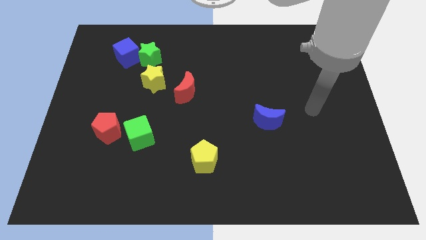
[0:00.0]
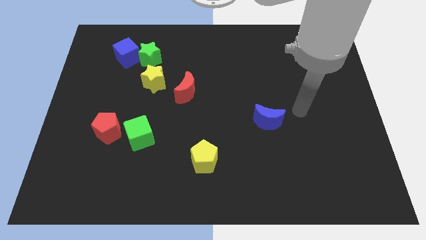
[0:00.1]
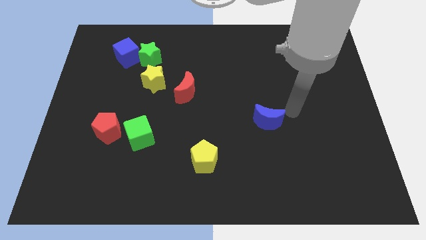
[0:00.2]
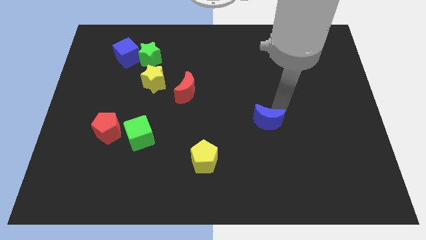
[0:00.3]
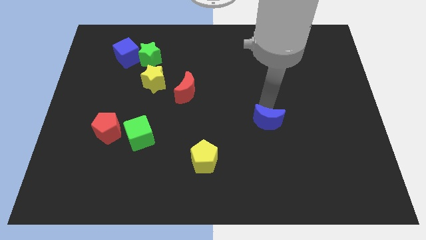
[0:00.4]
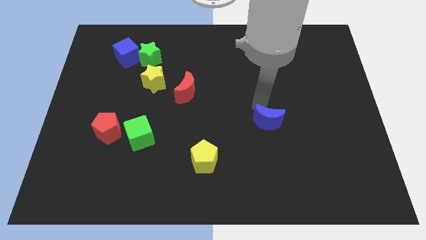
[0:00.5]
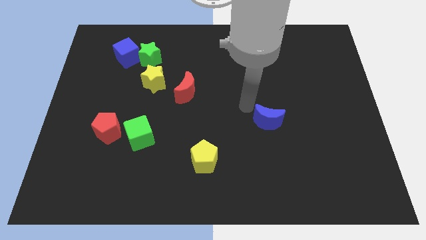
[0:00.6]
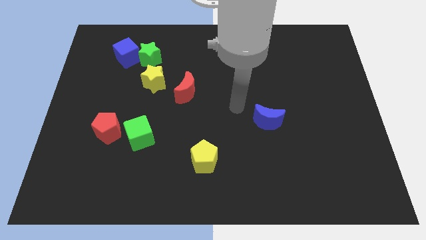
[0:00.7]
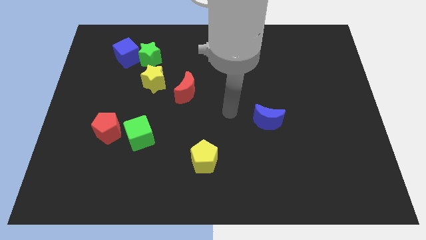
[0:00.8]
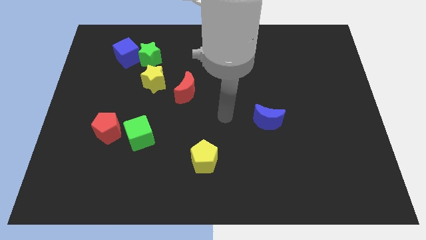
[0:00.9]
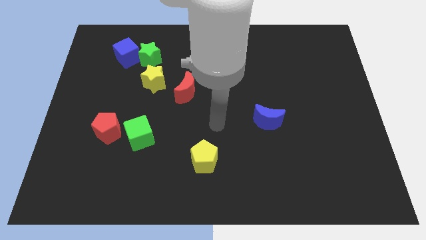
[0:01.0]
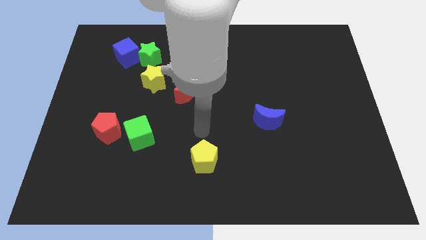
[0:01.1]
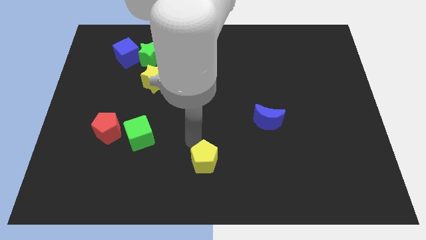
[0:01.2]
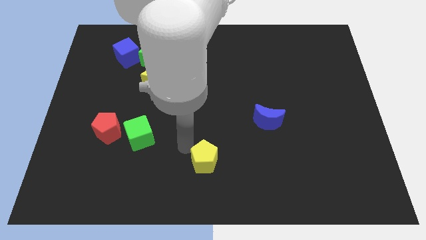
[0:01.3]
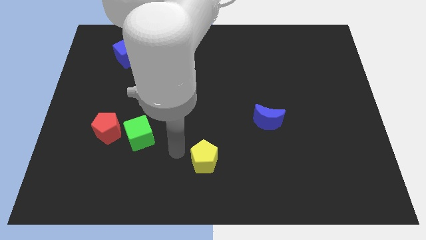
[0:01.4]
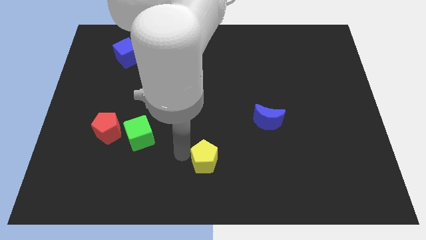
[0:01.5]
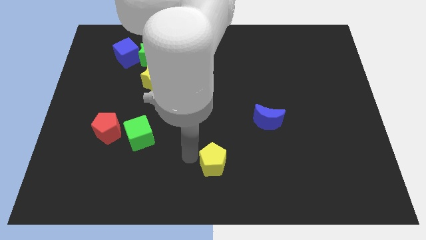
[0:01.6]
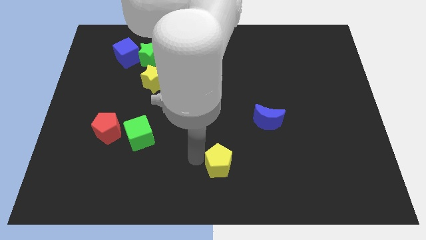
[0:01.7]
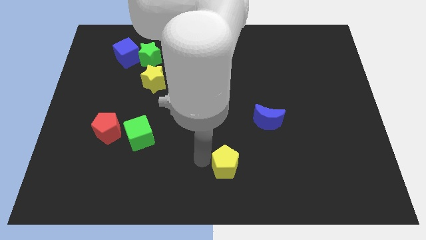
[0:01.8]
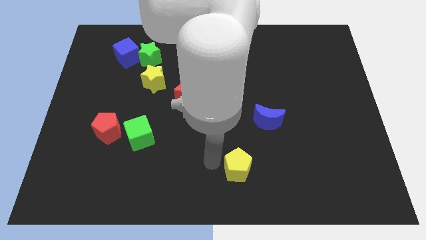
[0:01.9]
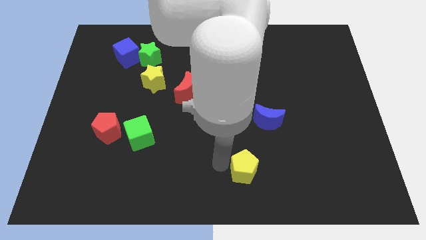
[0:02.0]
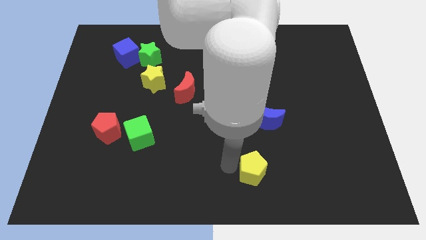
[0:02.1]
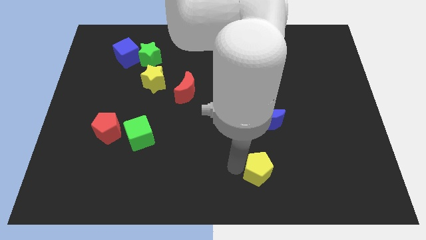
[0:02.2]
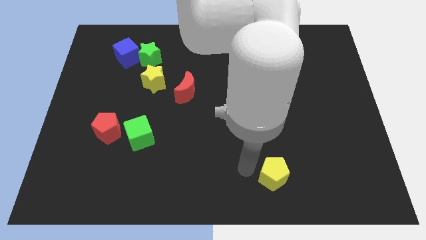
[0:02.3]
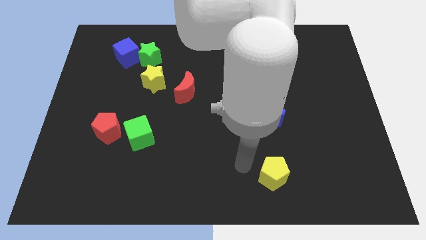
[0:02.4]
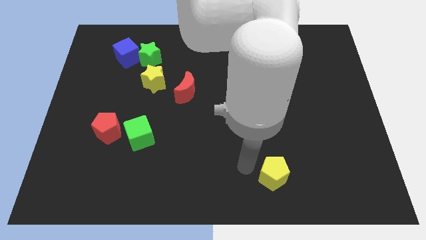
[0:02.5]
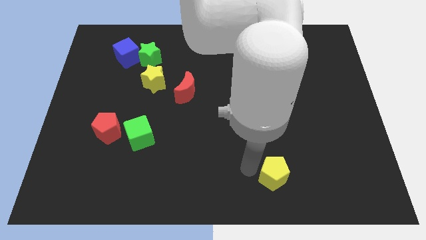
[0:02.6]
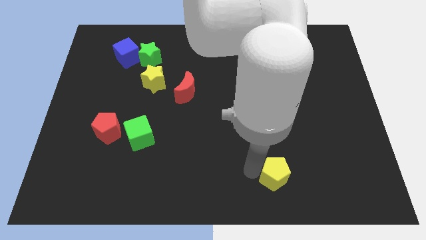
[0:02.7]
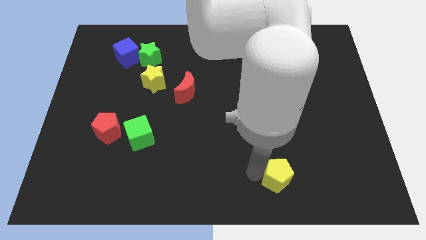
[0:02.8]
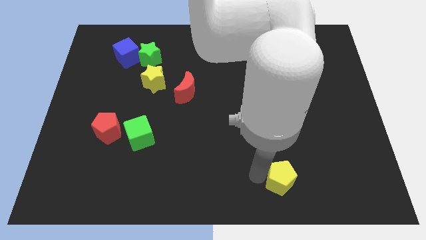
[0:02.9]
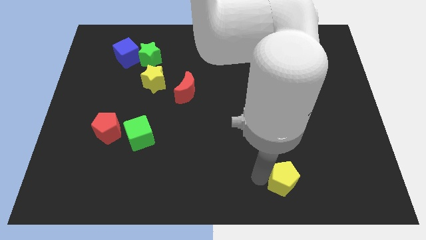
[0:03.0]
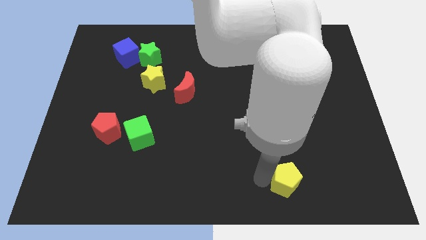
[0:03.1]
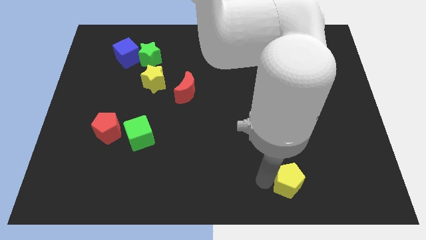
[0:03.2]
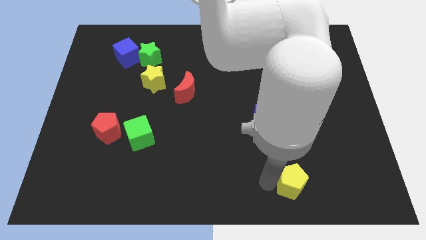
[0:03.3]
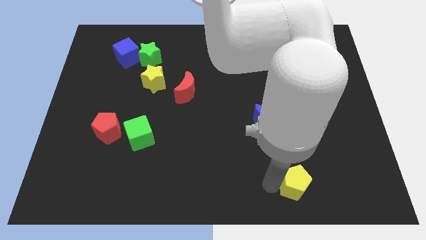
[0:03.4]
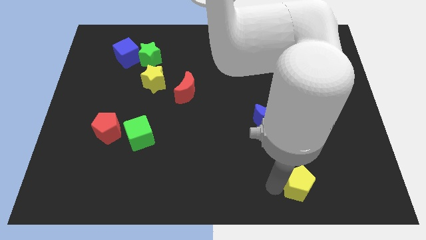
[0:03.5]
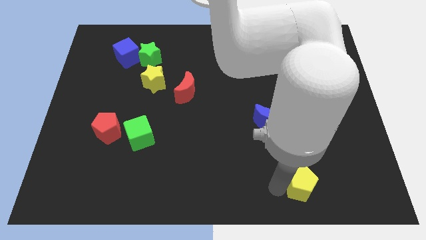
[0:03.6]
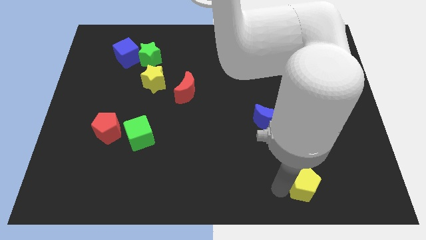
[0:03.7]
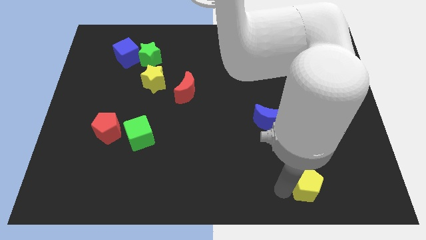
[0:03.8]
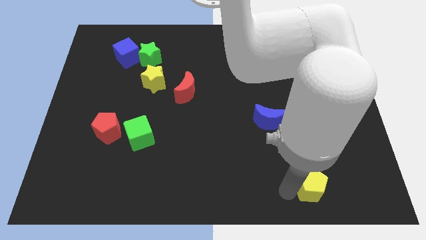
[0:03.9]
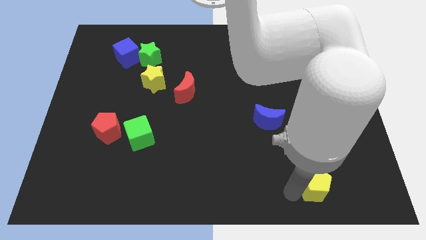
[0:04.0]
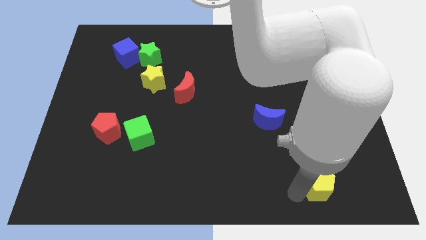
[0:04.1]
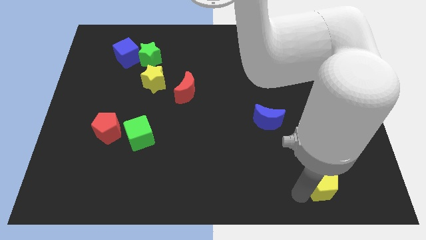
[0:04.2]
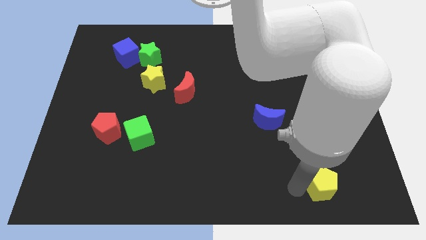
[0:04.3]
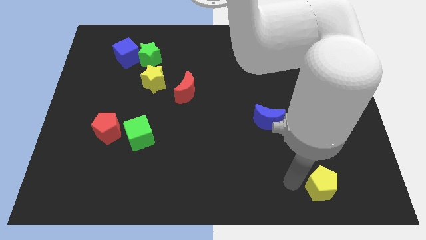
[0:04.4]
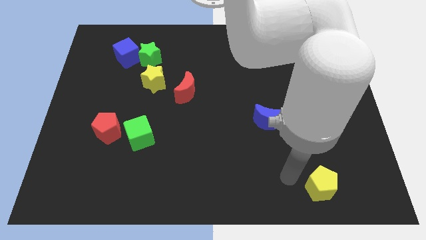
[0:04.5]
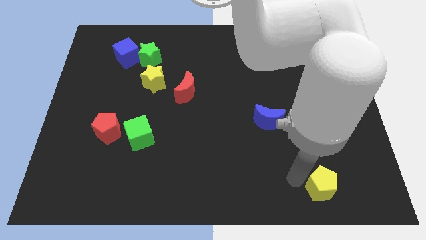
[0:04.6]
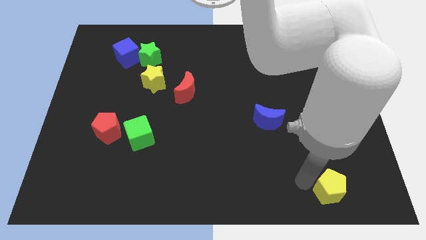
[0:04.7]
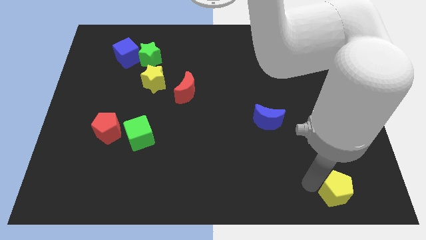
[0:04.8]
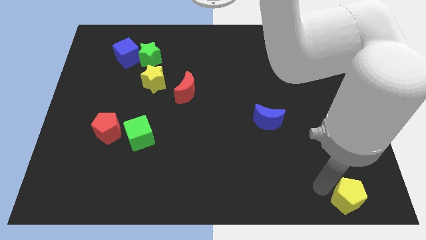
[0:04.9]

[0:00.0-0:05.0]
move the yellow pentagon to the lower right corner

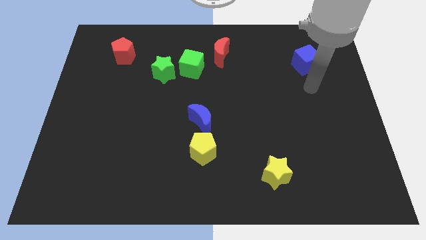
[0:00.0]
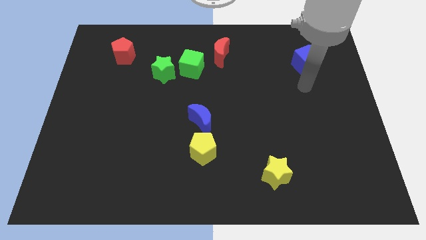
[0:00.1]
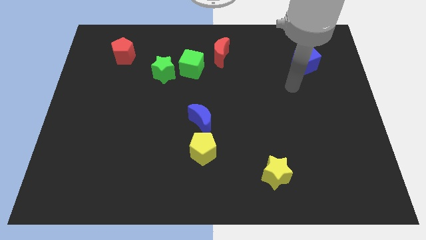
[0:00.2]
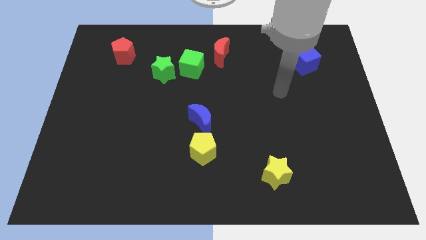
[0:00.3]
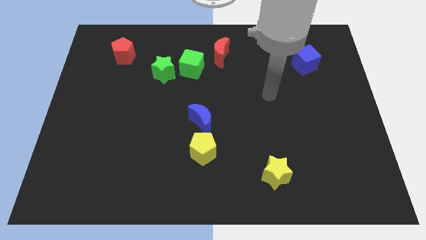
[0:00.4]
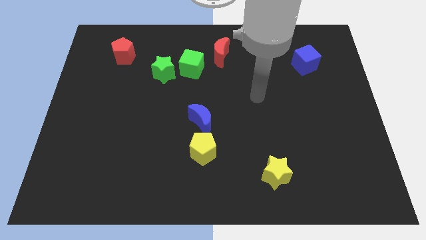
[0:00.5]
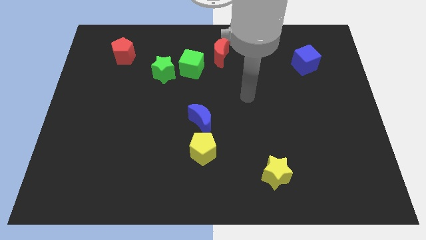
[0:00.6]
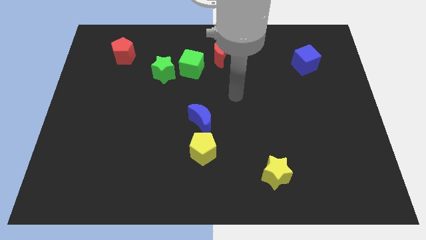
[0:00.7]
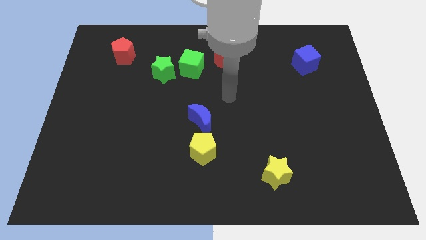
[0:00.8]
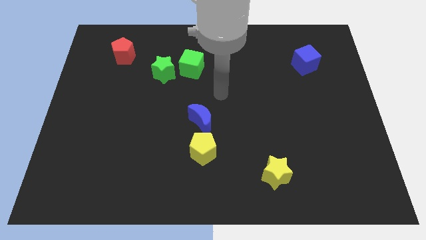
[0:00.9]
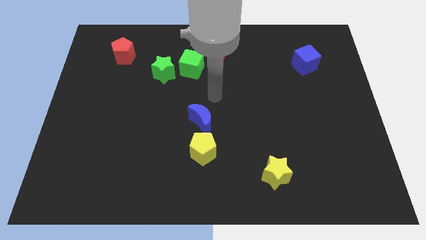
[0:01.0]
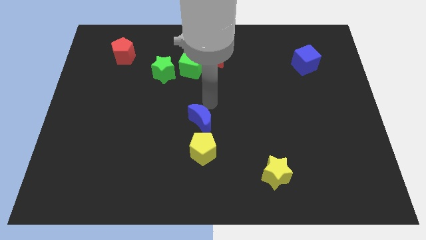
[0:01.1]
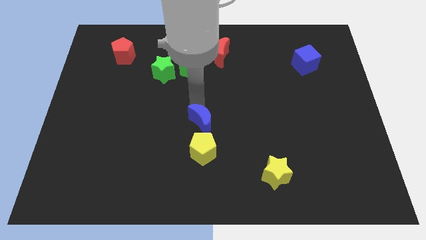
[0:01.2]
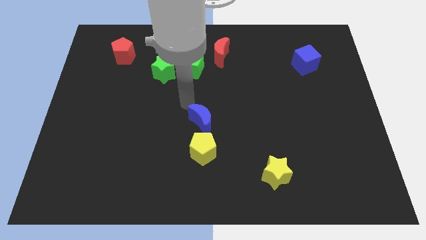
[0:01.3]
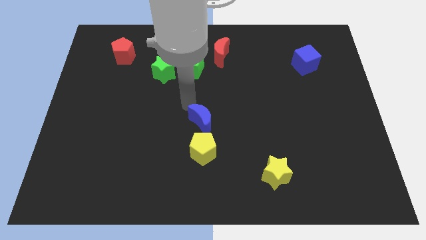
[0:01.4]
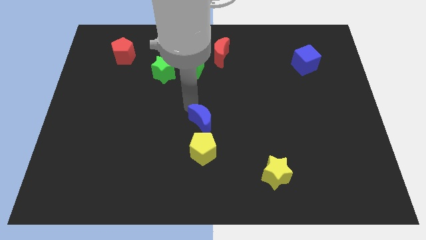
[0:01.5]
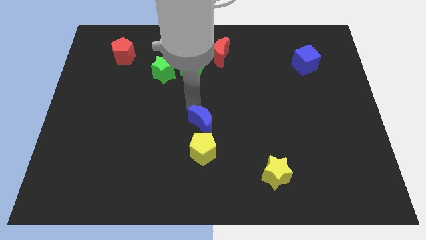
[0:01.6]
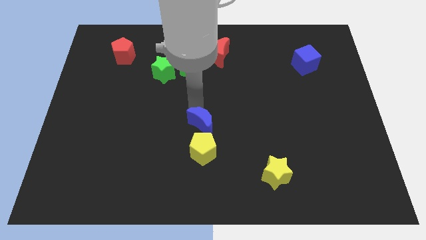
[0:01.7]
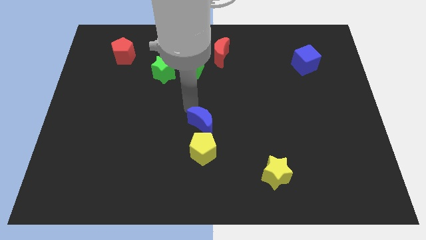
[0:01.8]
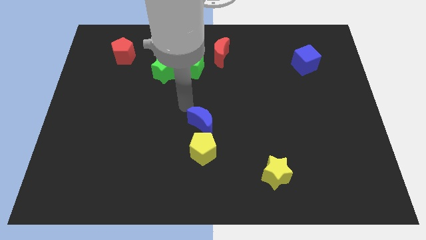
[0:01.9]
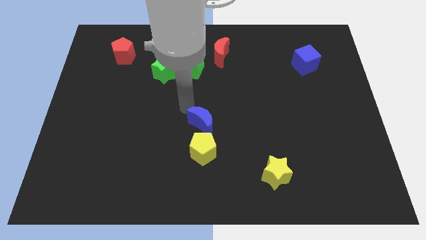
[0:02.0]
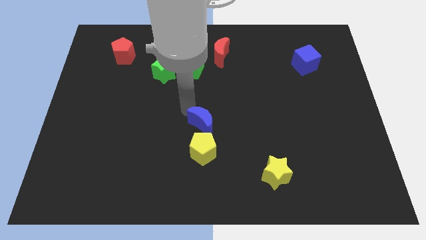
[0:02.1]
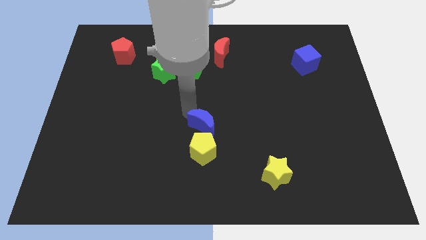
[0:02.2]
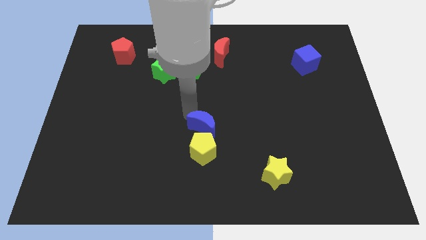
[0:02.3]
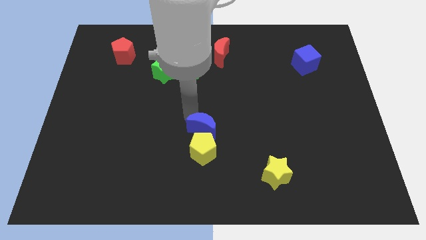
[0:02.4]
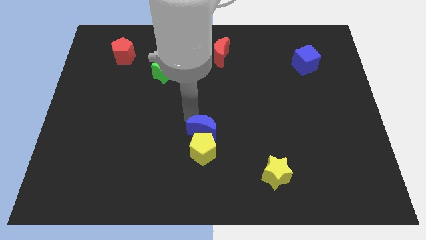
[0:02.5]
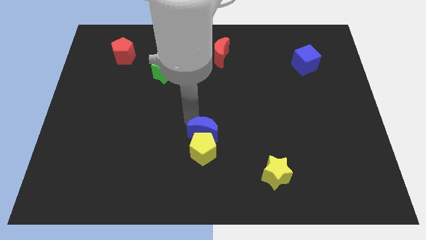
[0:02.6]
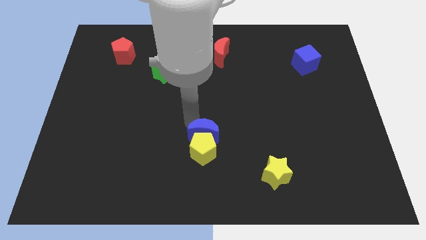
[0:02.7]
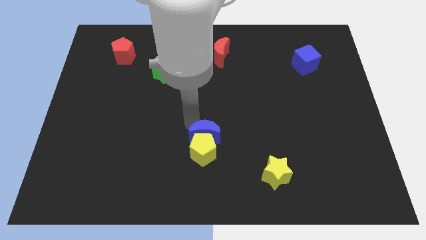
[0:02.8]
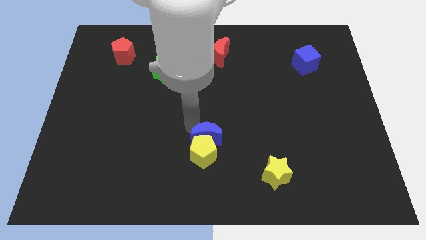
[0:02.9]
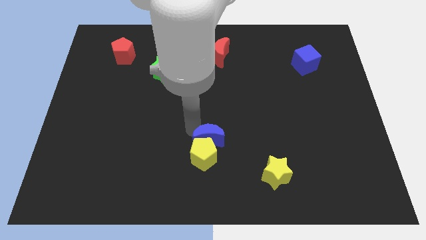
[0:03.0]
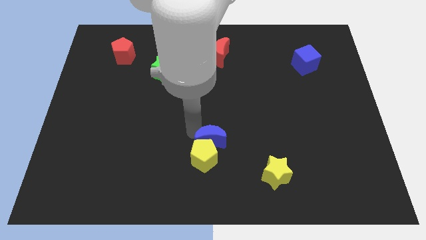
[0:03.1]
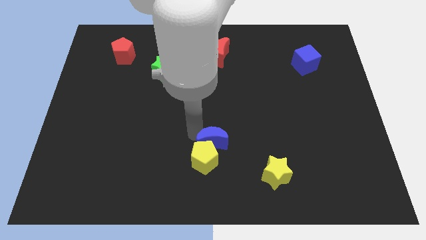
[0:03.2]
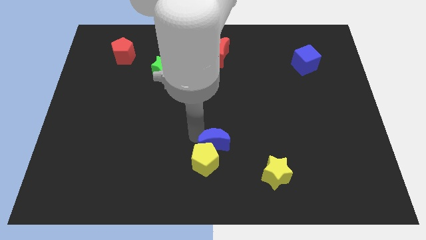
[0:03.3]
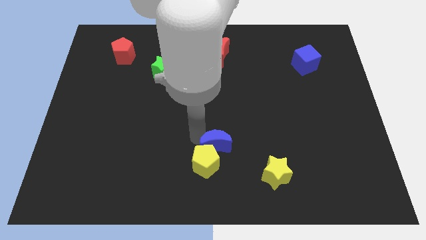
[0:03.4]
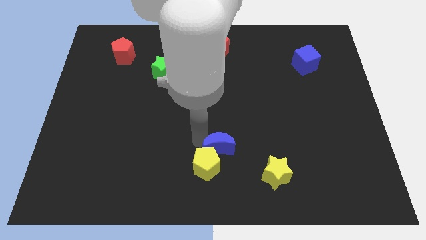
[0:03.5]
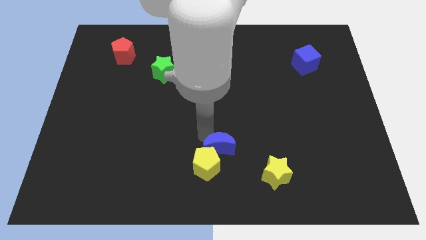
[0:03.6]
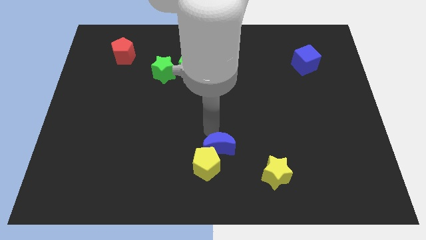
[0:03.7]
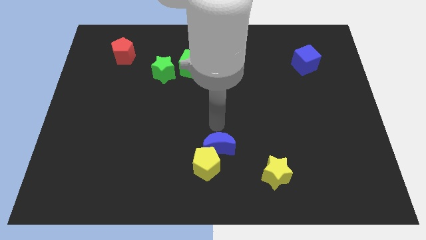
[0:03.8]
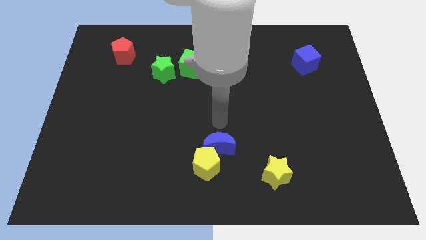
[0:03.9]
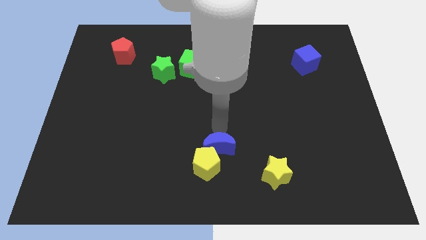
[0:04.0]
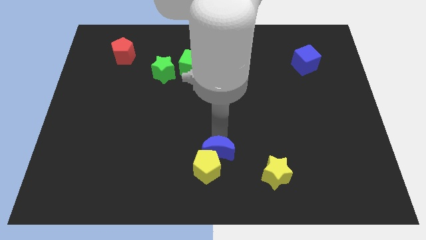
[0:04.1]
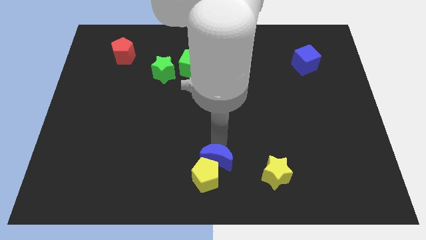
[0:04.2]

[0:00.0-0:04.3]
slide the blue moon to the bottom side
